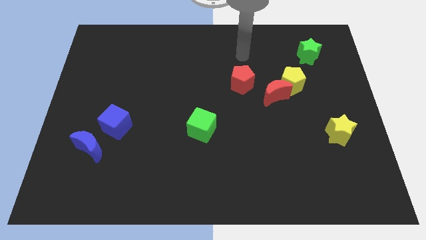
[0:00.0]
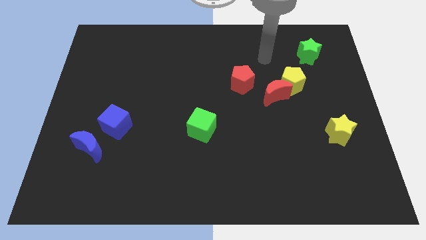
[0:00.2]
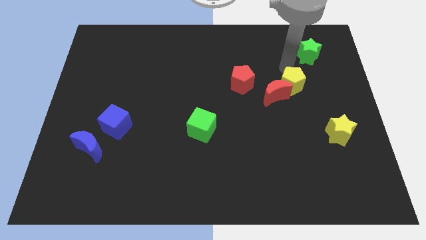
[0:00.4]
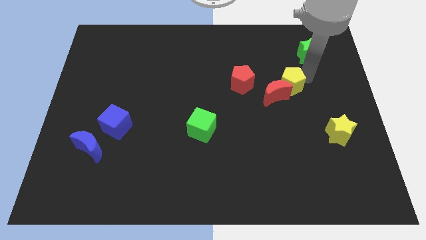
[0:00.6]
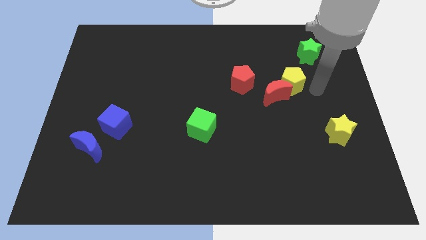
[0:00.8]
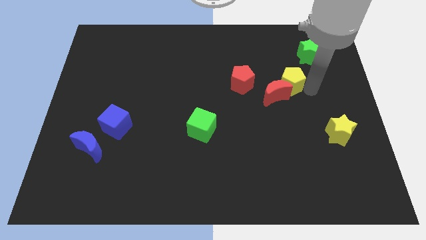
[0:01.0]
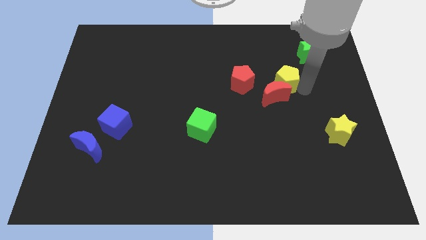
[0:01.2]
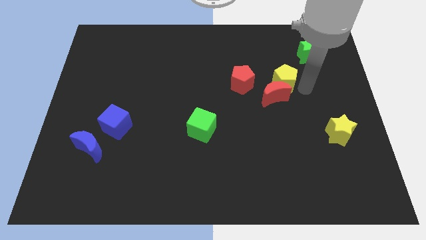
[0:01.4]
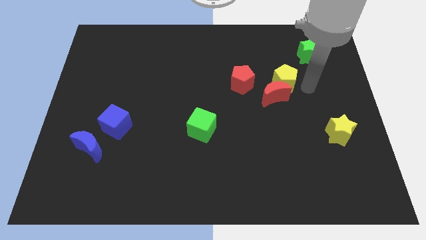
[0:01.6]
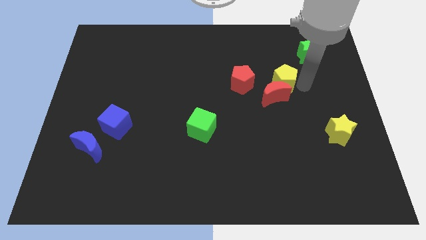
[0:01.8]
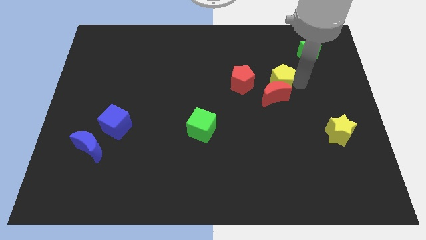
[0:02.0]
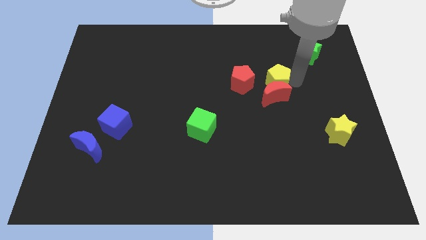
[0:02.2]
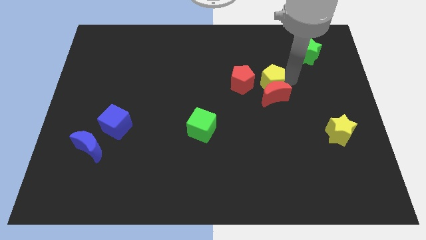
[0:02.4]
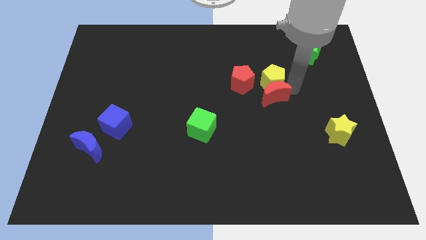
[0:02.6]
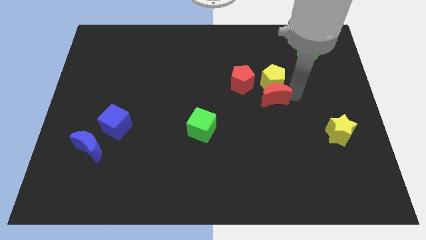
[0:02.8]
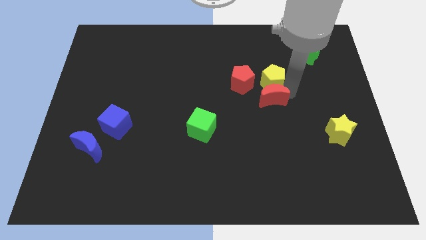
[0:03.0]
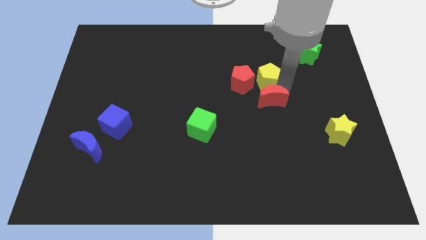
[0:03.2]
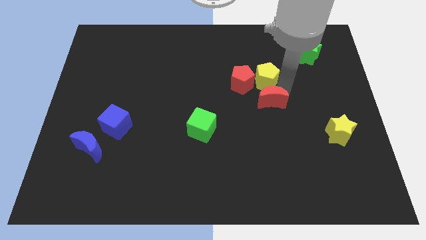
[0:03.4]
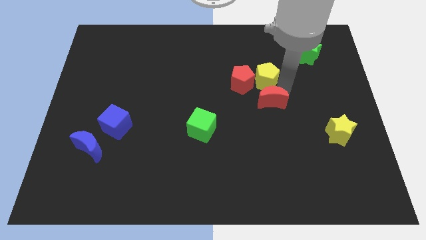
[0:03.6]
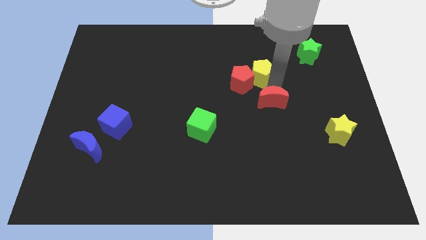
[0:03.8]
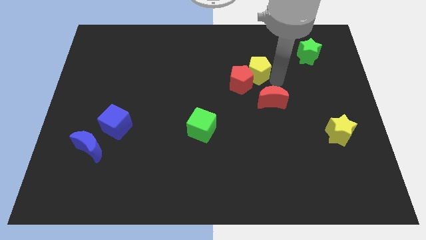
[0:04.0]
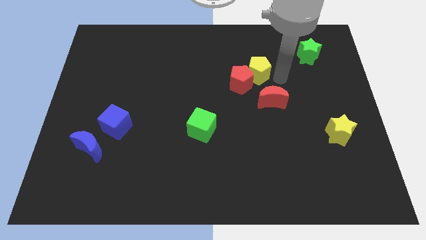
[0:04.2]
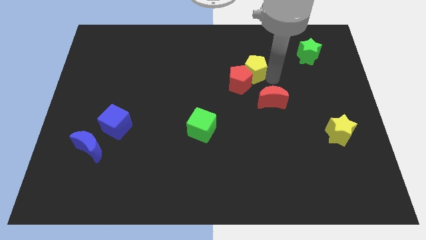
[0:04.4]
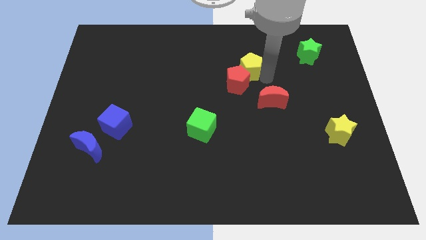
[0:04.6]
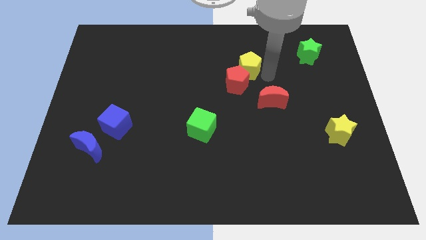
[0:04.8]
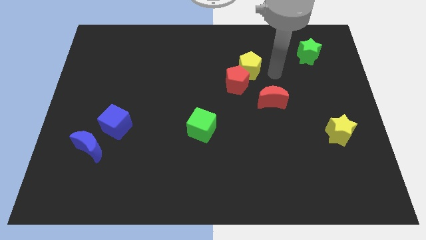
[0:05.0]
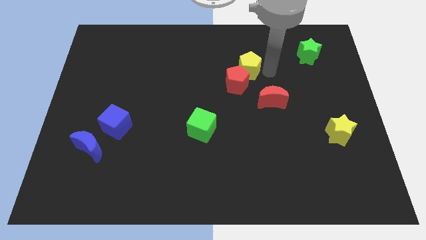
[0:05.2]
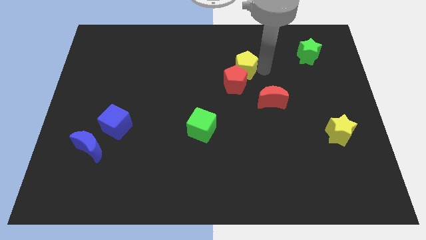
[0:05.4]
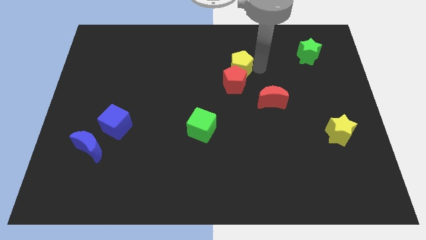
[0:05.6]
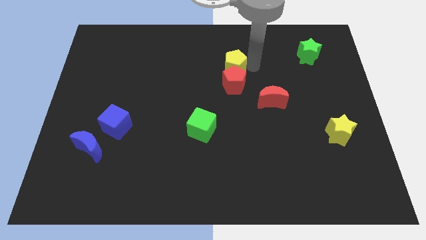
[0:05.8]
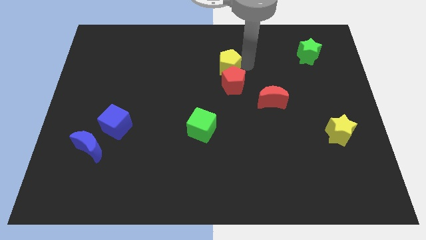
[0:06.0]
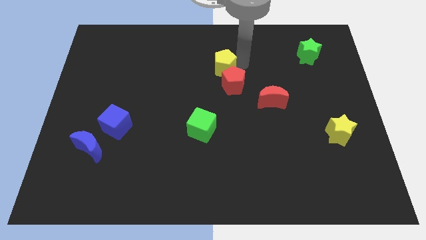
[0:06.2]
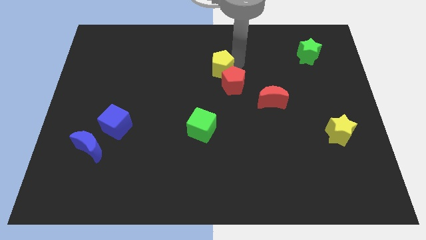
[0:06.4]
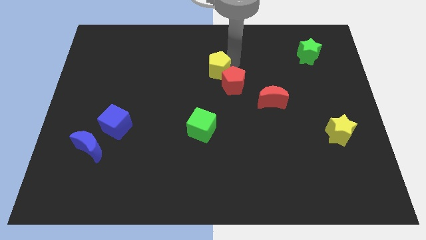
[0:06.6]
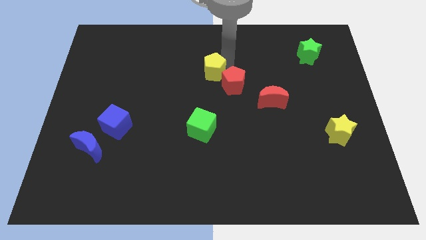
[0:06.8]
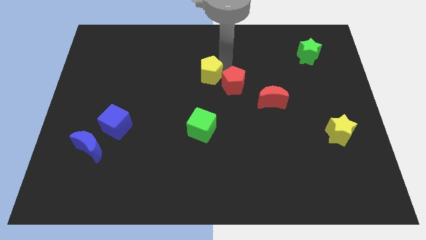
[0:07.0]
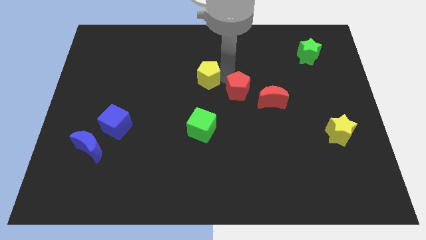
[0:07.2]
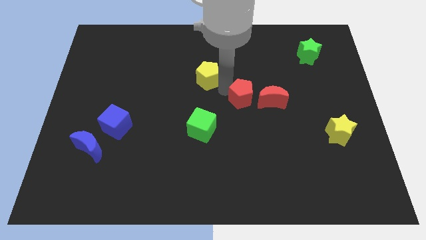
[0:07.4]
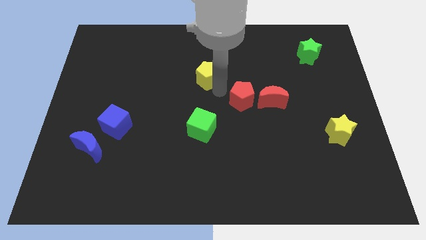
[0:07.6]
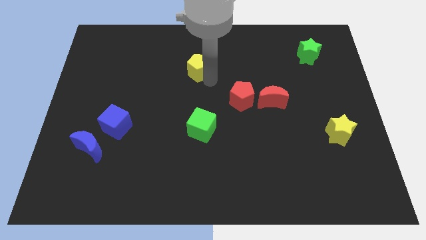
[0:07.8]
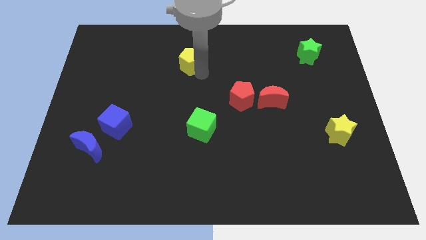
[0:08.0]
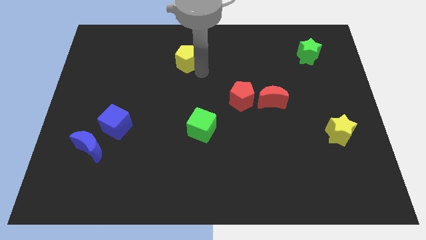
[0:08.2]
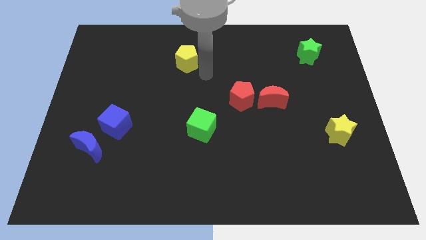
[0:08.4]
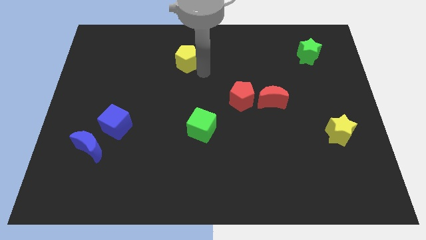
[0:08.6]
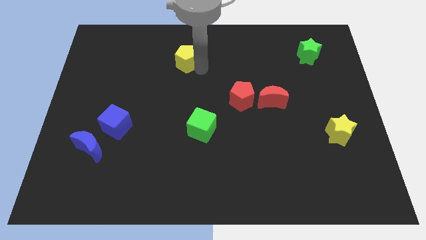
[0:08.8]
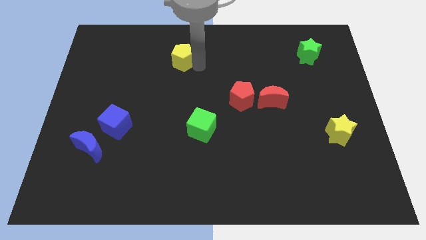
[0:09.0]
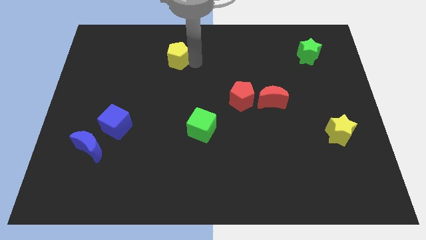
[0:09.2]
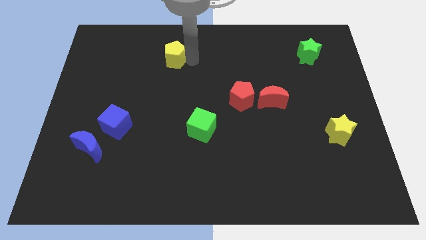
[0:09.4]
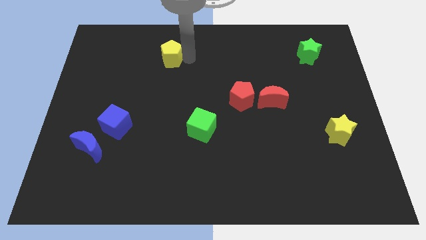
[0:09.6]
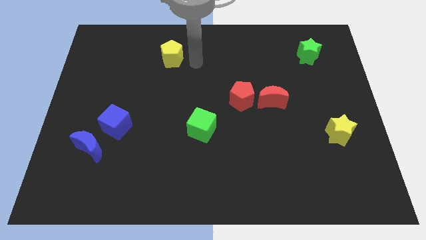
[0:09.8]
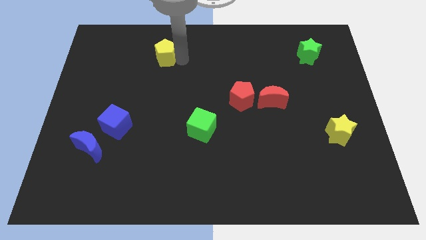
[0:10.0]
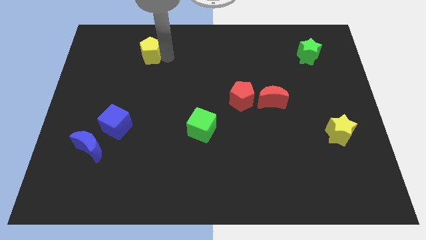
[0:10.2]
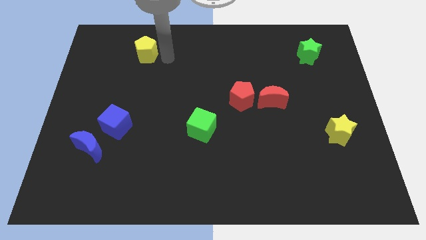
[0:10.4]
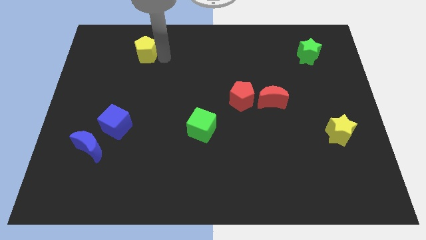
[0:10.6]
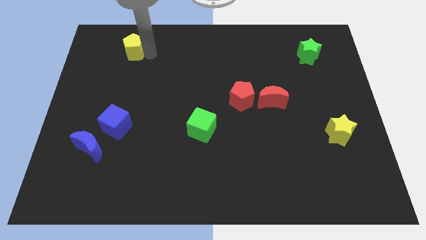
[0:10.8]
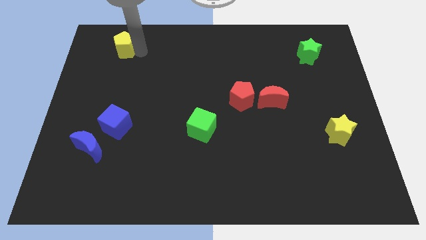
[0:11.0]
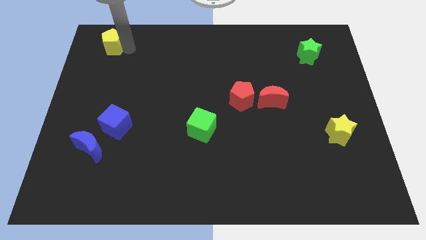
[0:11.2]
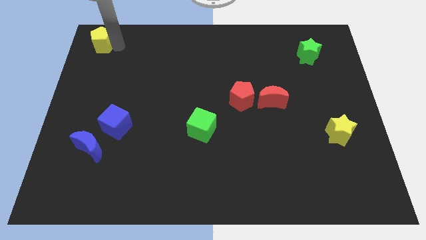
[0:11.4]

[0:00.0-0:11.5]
slide the yellow pentagon to the top left corner

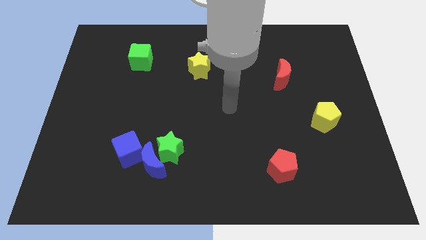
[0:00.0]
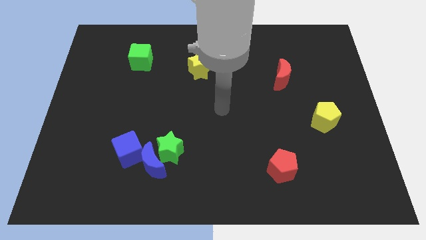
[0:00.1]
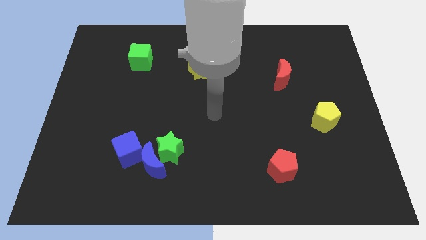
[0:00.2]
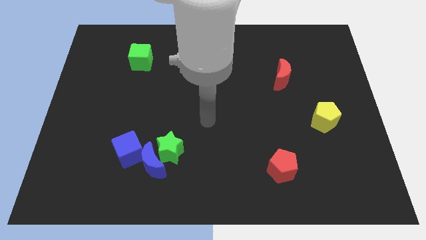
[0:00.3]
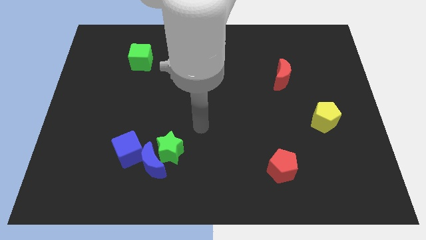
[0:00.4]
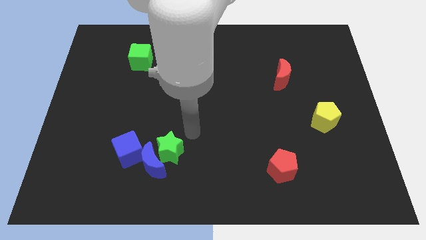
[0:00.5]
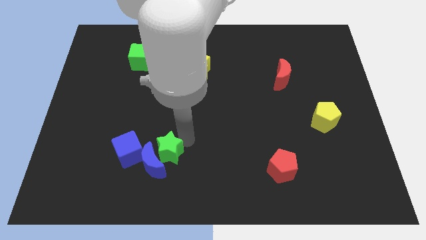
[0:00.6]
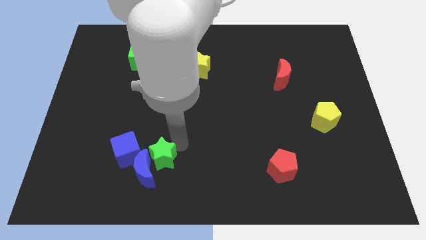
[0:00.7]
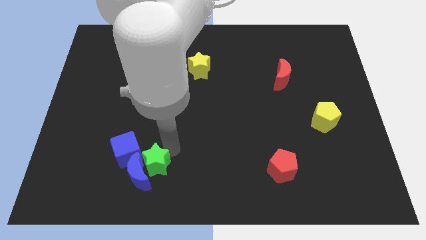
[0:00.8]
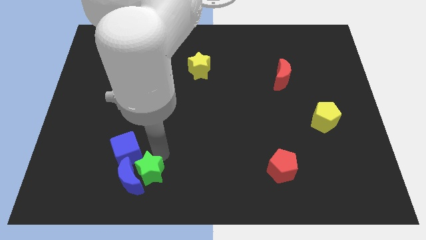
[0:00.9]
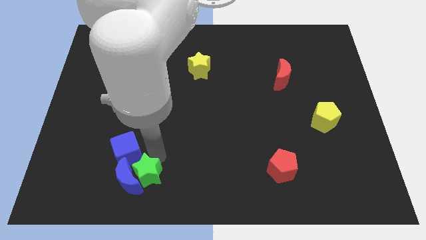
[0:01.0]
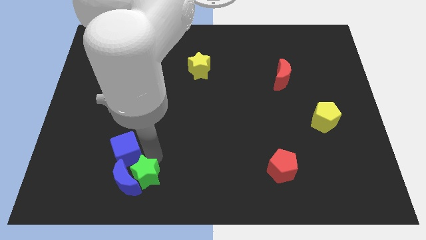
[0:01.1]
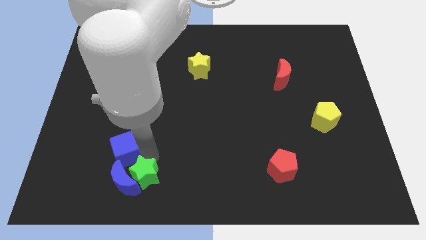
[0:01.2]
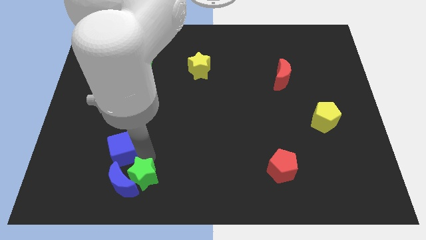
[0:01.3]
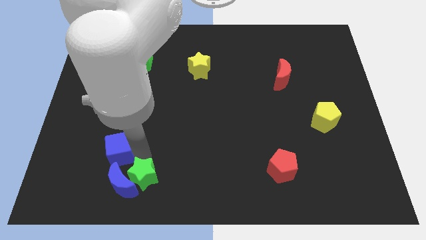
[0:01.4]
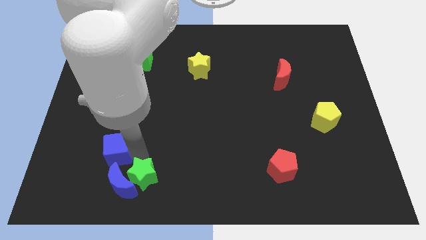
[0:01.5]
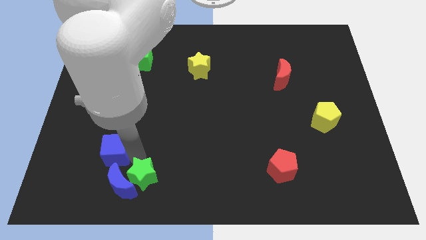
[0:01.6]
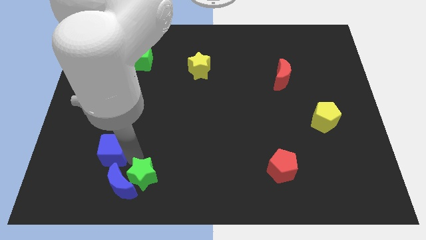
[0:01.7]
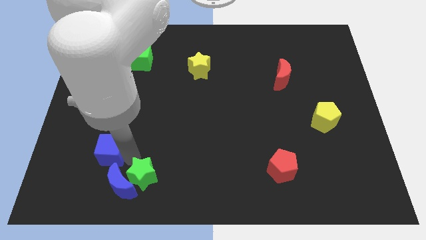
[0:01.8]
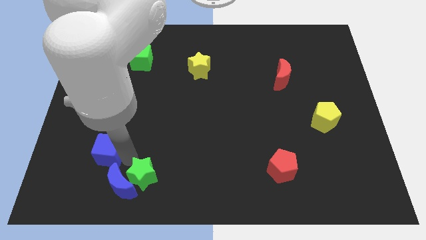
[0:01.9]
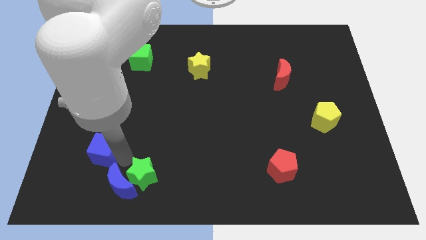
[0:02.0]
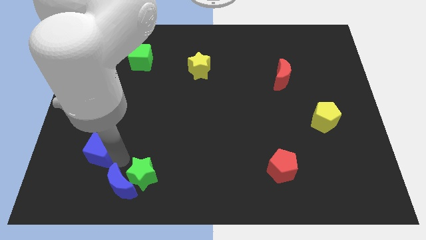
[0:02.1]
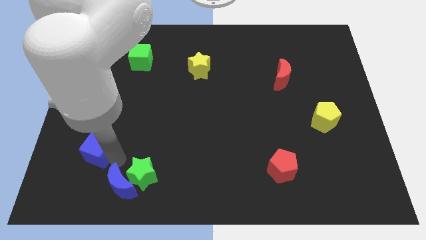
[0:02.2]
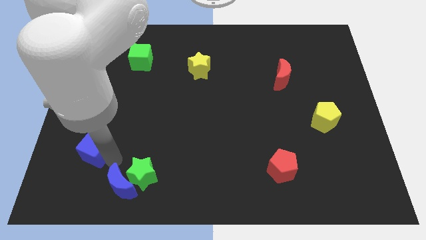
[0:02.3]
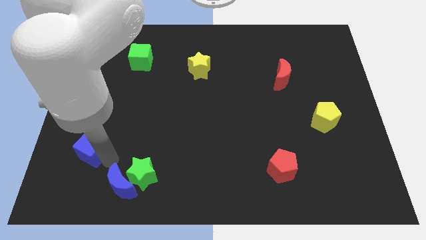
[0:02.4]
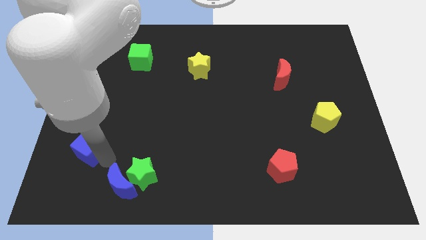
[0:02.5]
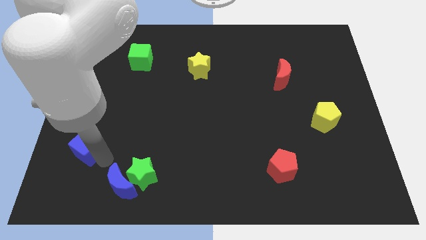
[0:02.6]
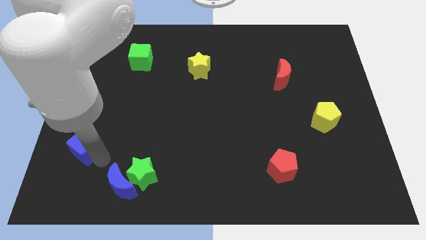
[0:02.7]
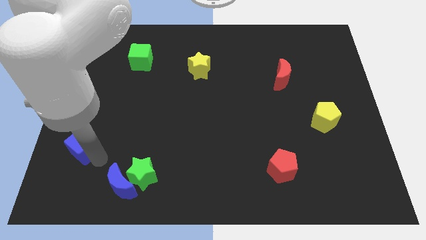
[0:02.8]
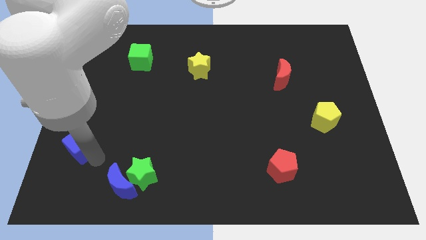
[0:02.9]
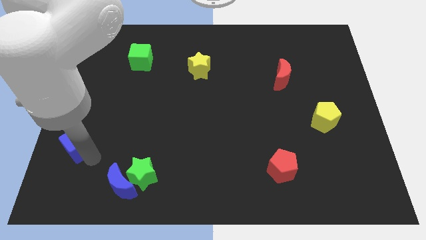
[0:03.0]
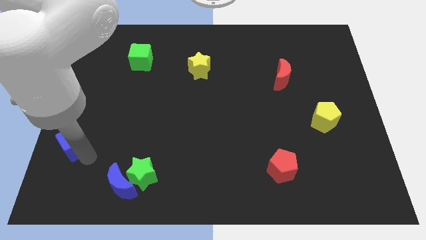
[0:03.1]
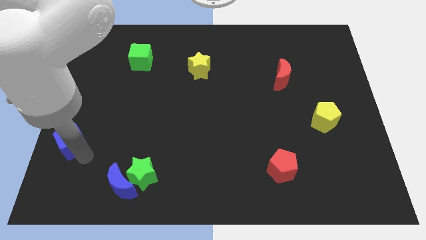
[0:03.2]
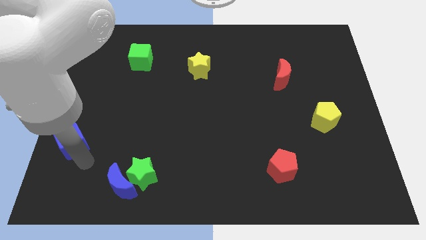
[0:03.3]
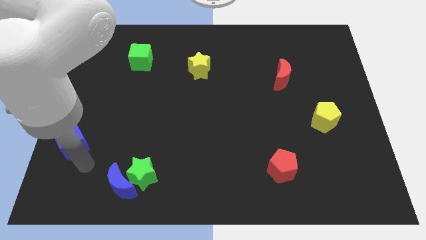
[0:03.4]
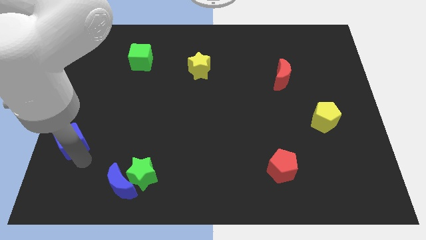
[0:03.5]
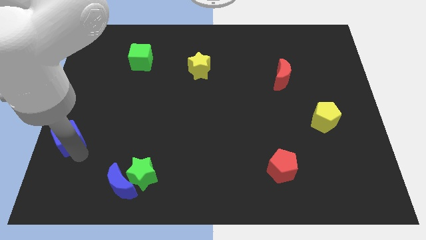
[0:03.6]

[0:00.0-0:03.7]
push the blue cube to the left side
